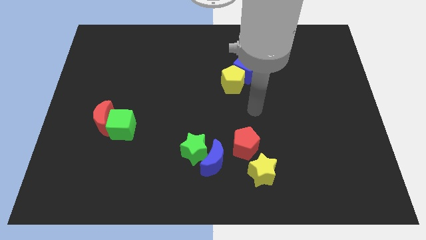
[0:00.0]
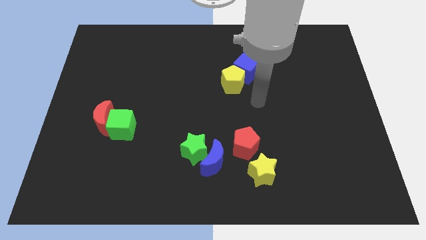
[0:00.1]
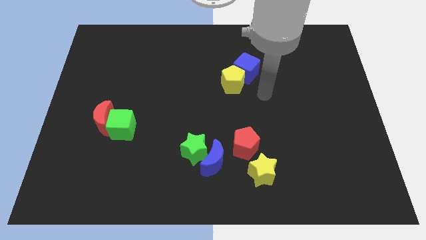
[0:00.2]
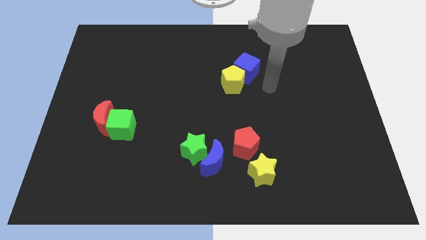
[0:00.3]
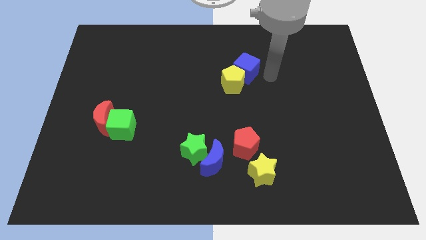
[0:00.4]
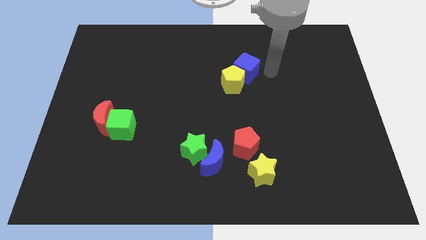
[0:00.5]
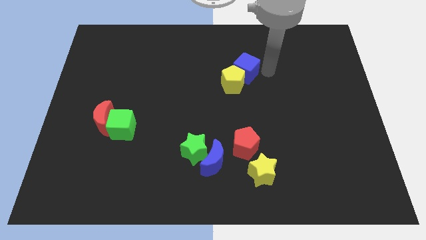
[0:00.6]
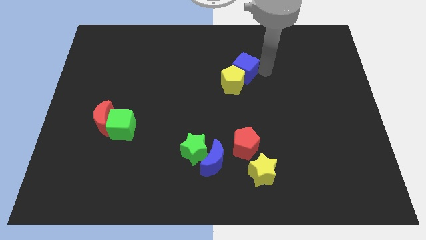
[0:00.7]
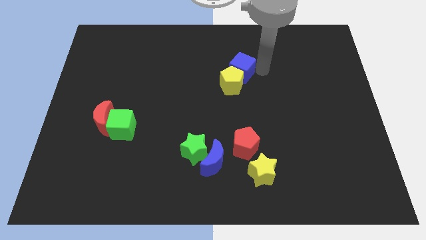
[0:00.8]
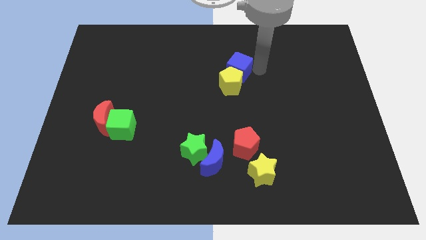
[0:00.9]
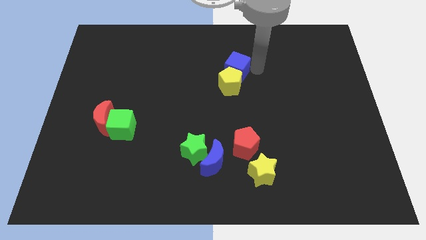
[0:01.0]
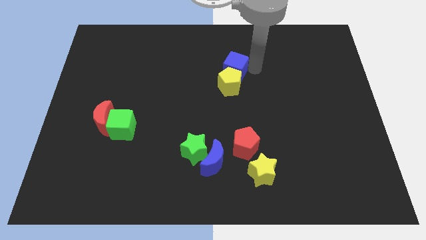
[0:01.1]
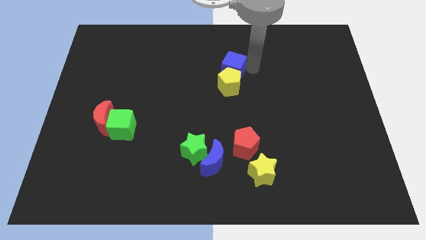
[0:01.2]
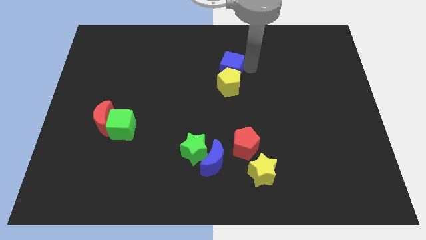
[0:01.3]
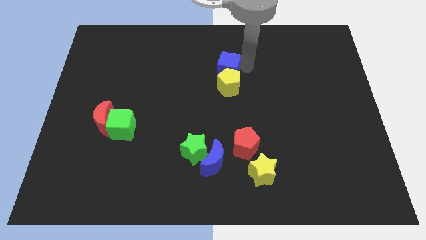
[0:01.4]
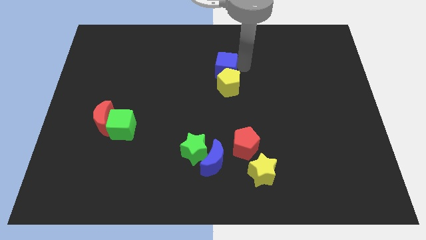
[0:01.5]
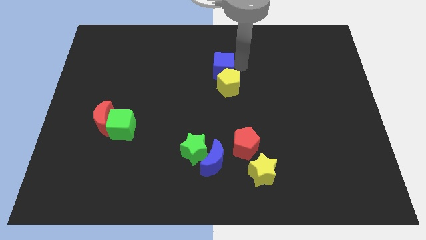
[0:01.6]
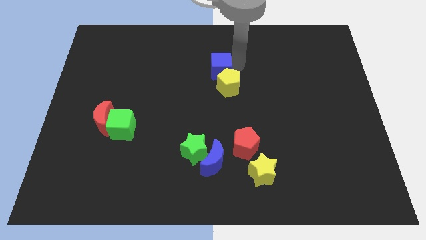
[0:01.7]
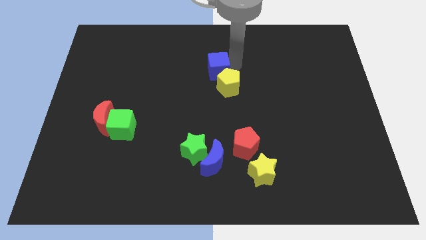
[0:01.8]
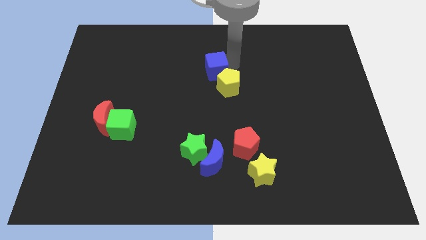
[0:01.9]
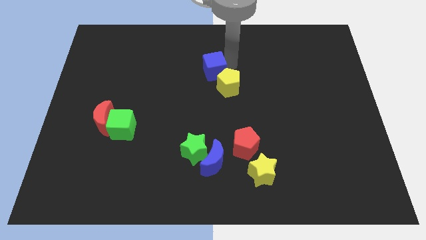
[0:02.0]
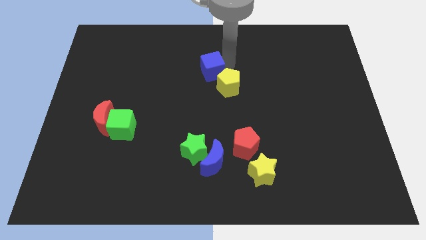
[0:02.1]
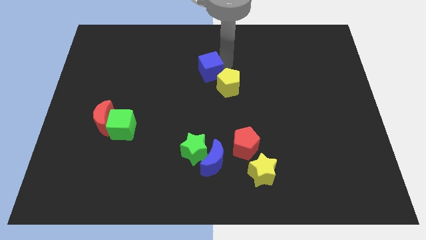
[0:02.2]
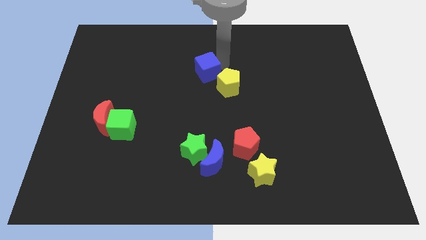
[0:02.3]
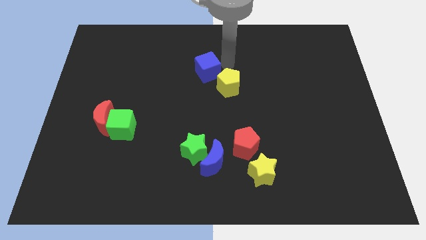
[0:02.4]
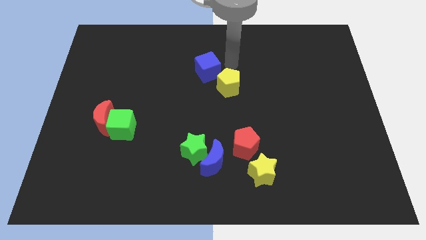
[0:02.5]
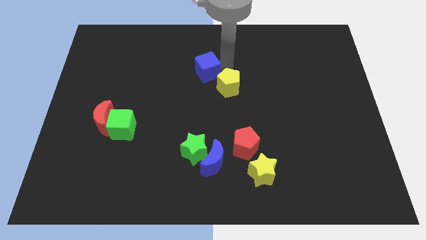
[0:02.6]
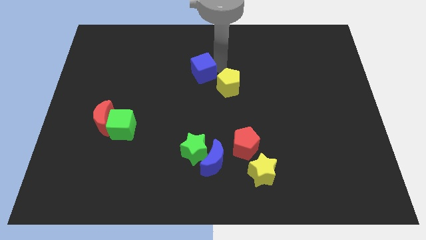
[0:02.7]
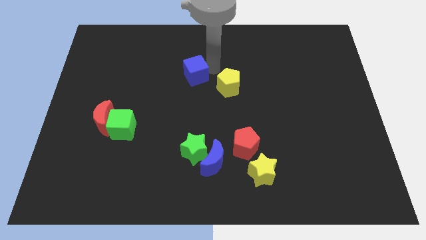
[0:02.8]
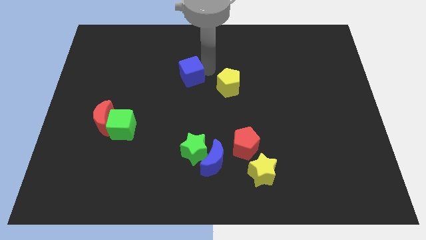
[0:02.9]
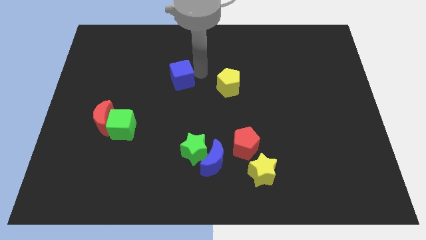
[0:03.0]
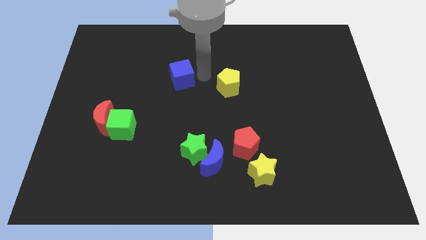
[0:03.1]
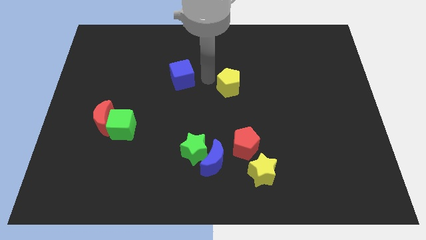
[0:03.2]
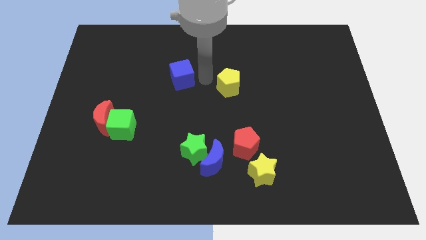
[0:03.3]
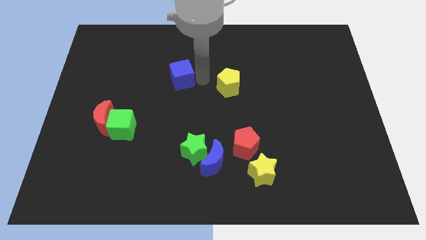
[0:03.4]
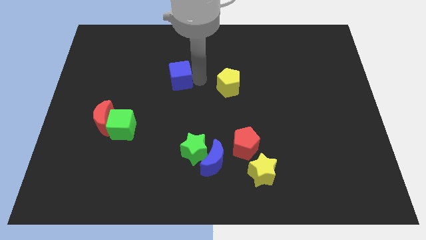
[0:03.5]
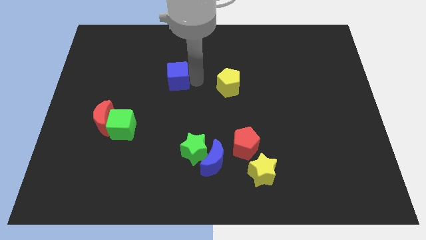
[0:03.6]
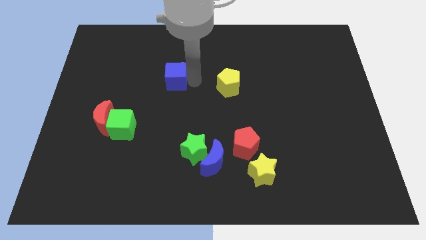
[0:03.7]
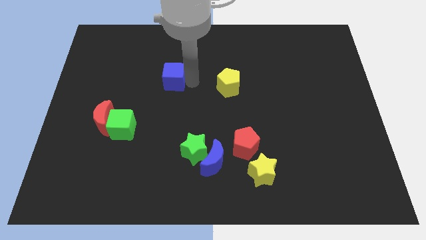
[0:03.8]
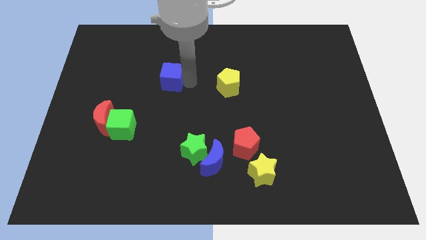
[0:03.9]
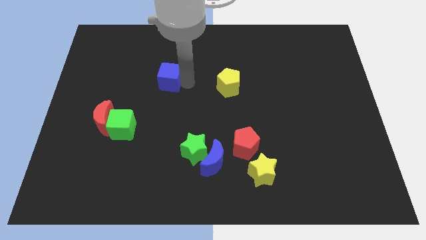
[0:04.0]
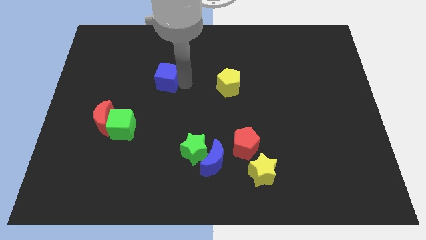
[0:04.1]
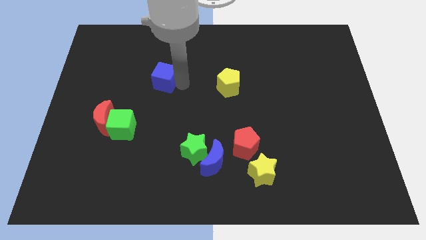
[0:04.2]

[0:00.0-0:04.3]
push the blue cube to the left

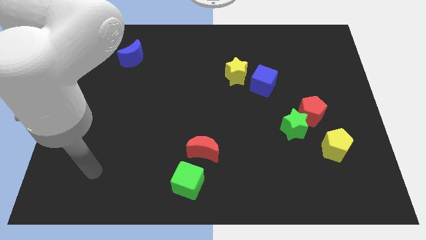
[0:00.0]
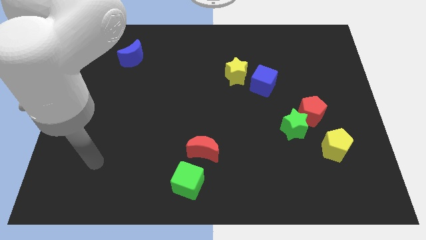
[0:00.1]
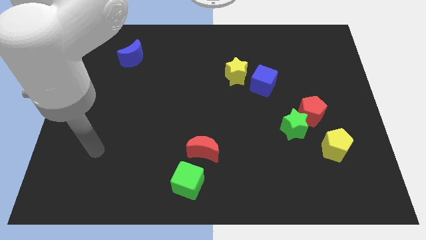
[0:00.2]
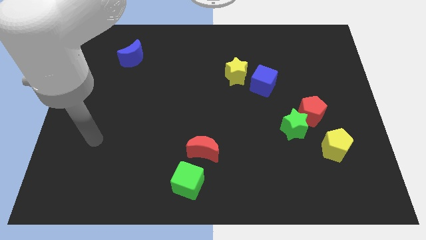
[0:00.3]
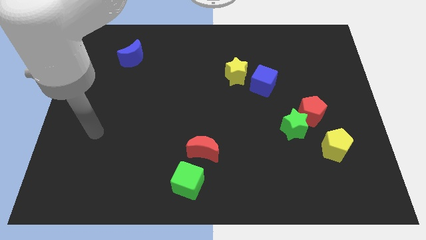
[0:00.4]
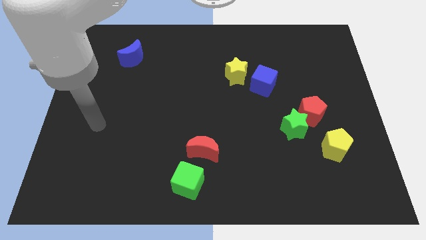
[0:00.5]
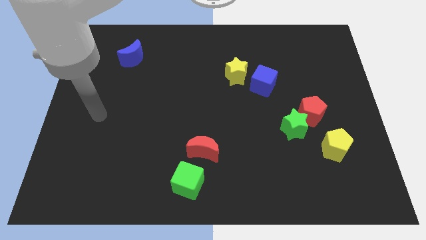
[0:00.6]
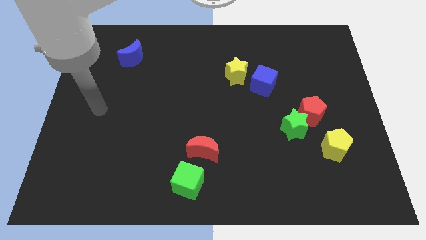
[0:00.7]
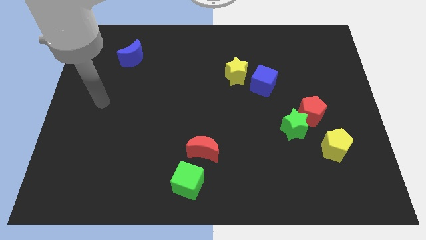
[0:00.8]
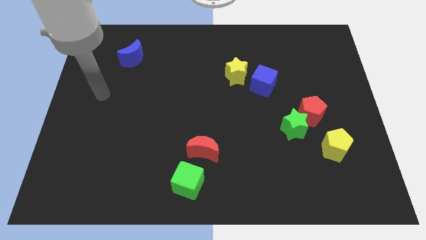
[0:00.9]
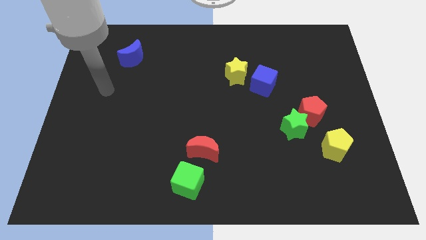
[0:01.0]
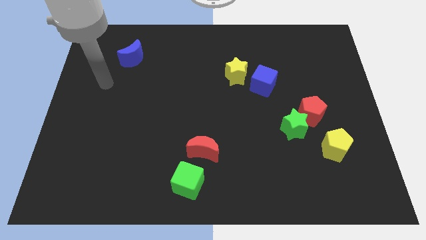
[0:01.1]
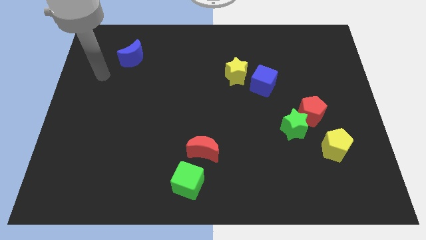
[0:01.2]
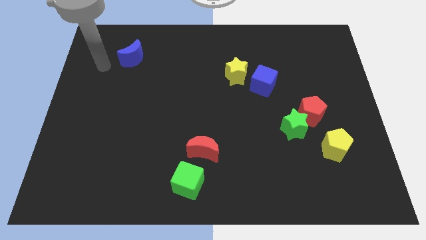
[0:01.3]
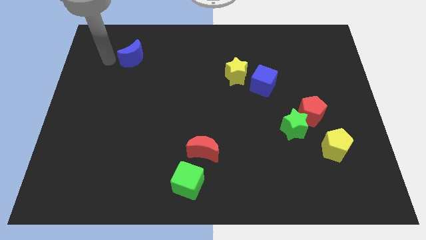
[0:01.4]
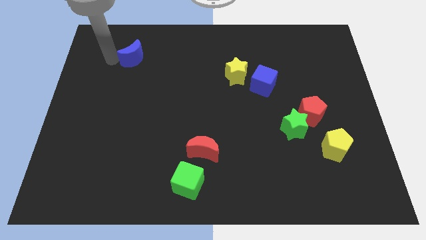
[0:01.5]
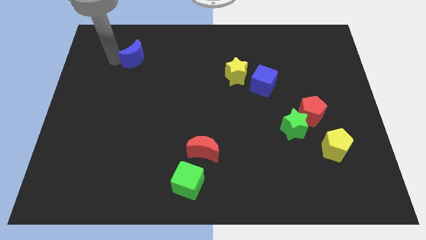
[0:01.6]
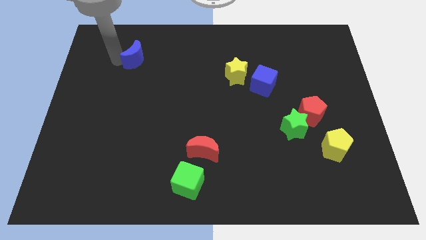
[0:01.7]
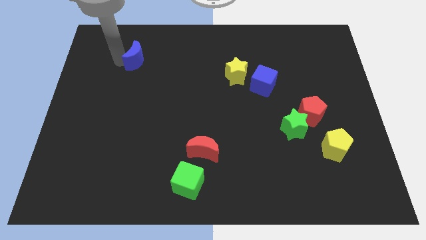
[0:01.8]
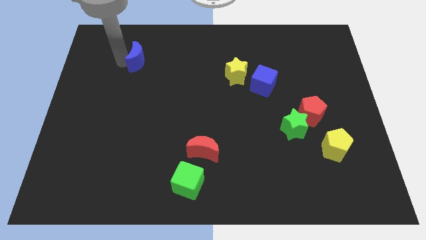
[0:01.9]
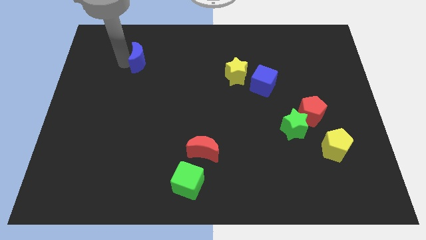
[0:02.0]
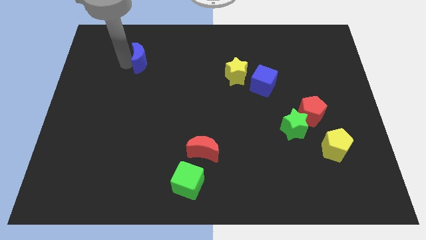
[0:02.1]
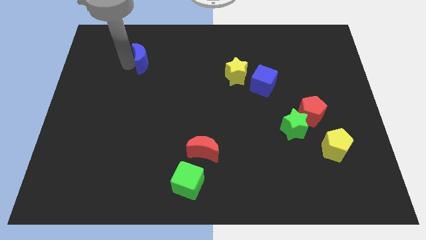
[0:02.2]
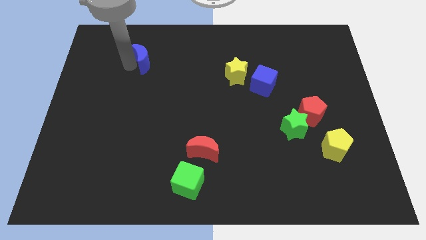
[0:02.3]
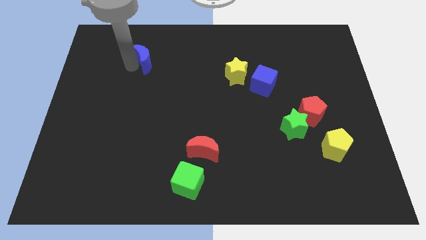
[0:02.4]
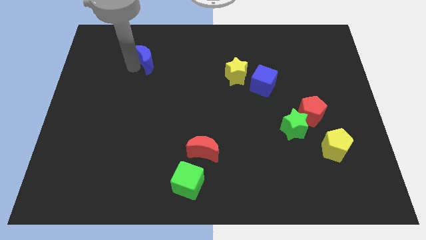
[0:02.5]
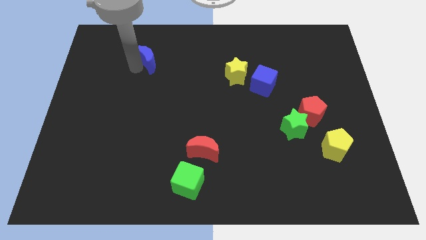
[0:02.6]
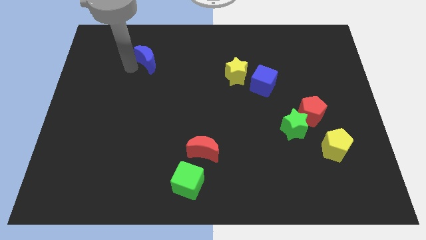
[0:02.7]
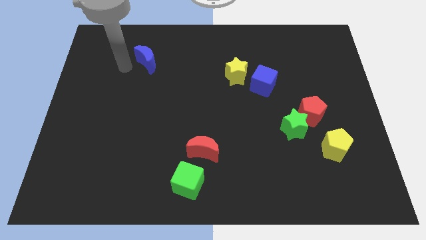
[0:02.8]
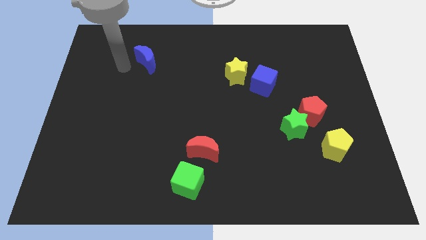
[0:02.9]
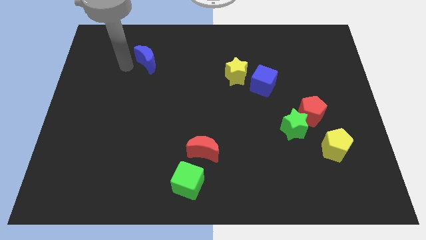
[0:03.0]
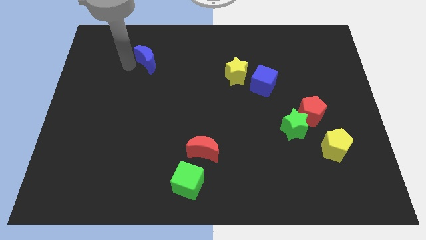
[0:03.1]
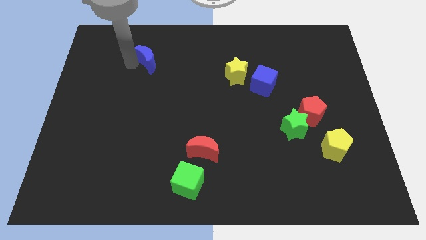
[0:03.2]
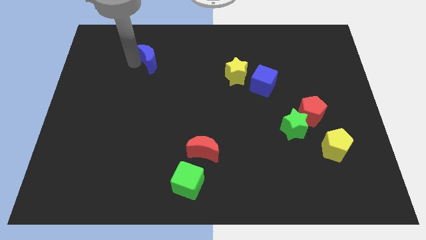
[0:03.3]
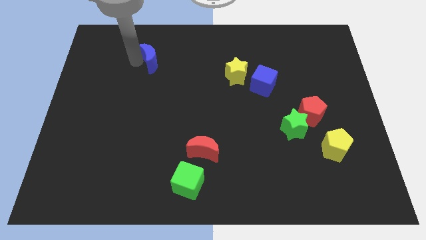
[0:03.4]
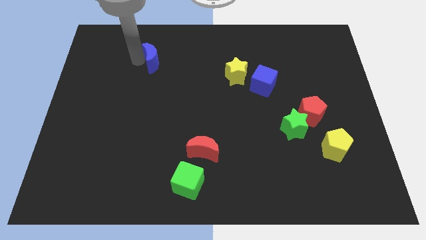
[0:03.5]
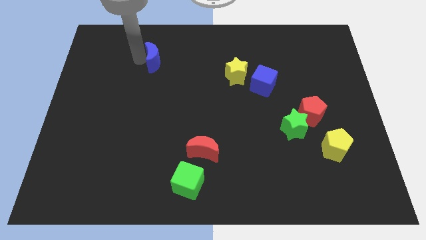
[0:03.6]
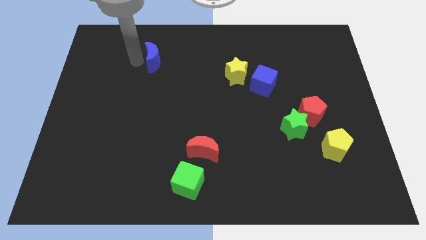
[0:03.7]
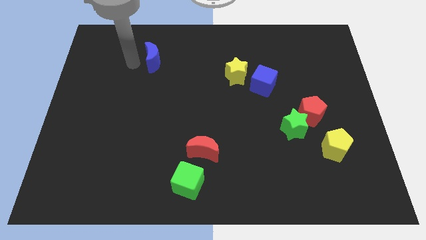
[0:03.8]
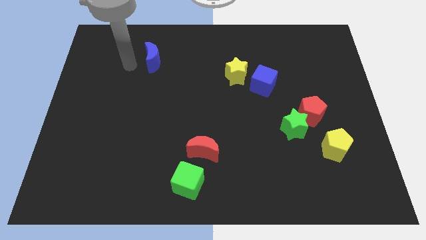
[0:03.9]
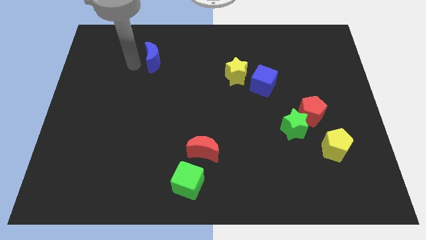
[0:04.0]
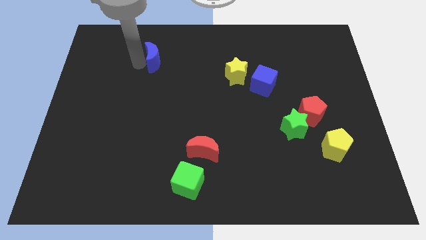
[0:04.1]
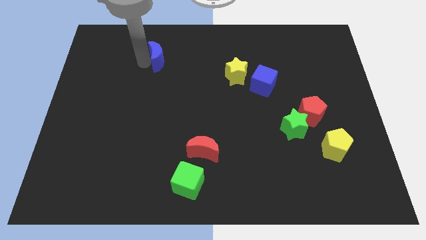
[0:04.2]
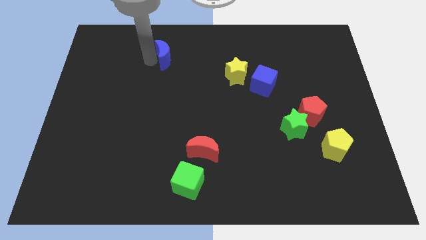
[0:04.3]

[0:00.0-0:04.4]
slightly move the blue moon right
